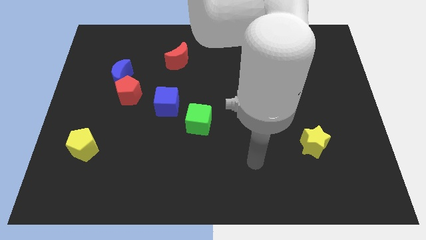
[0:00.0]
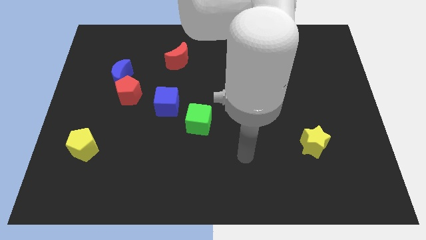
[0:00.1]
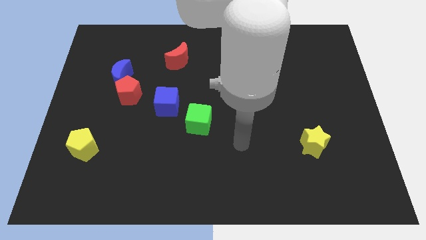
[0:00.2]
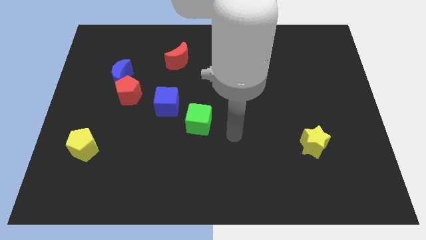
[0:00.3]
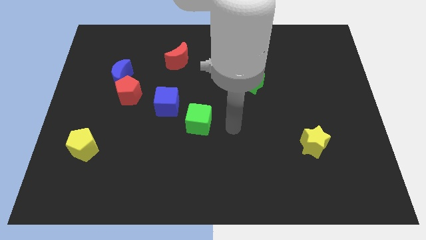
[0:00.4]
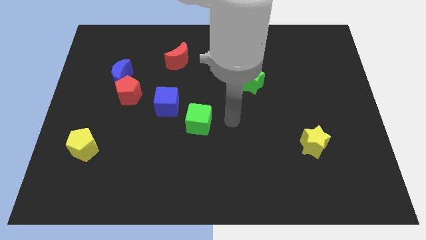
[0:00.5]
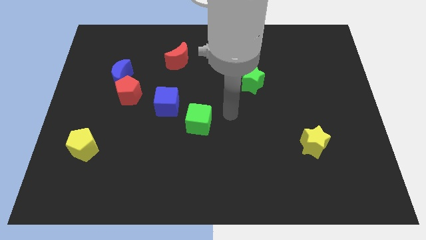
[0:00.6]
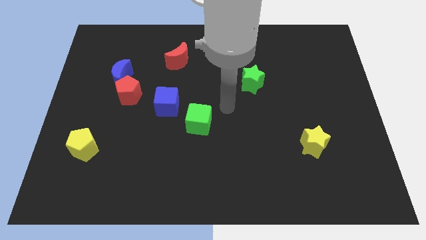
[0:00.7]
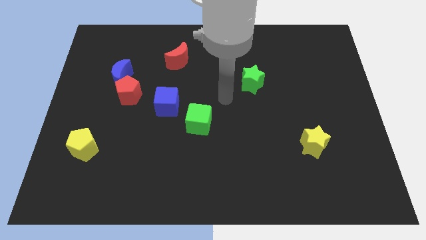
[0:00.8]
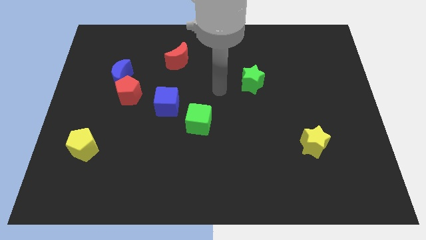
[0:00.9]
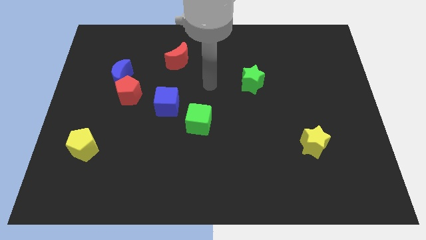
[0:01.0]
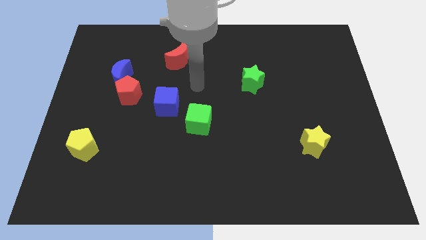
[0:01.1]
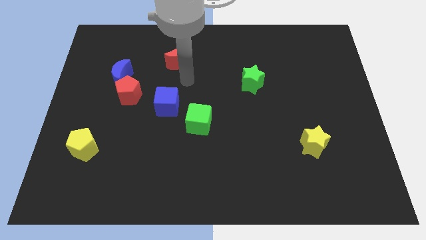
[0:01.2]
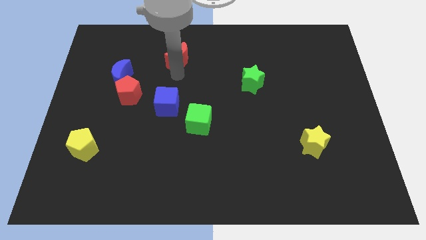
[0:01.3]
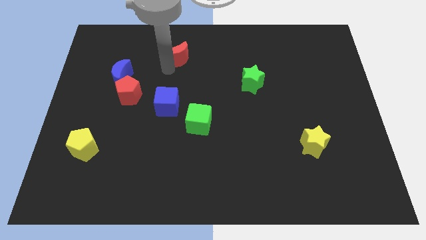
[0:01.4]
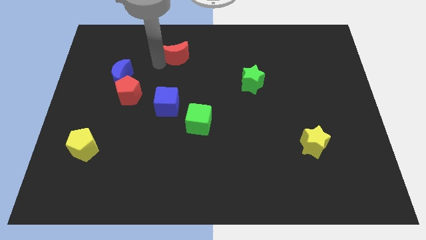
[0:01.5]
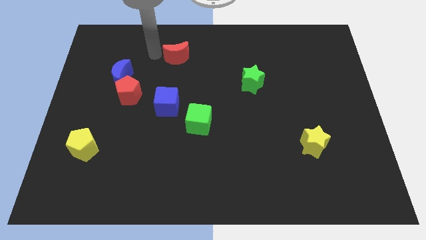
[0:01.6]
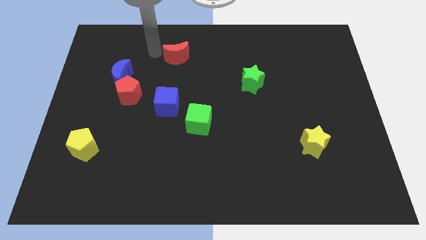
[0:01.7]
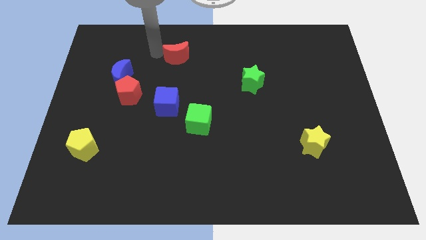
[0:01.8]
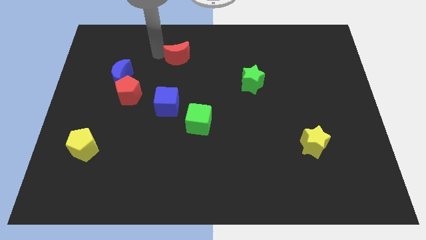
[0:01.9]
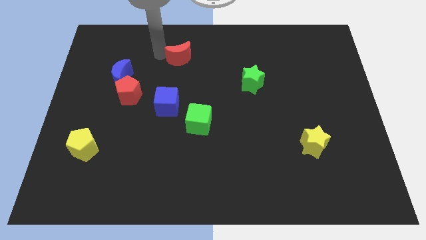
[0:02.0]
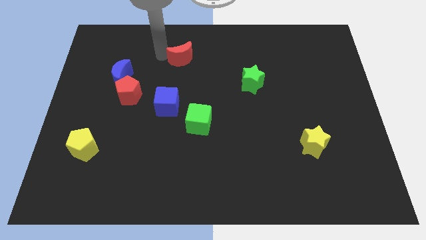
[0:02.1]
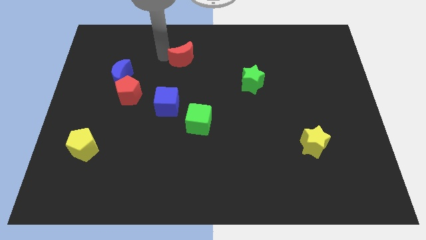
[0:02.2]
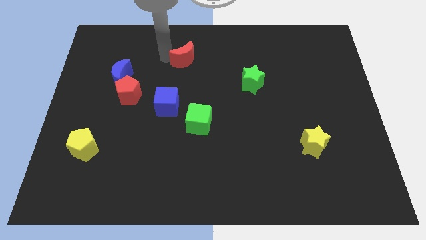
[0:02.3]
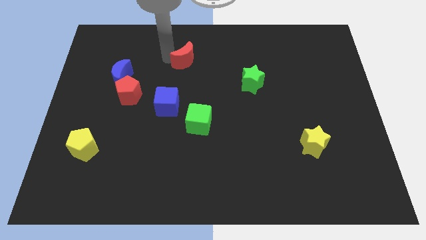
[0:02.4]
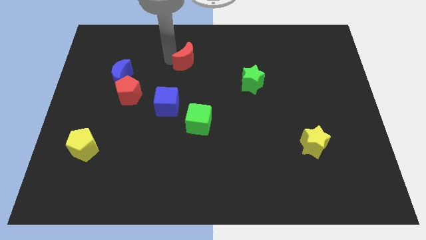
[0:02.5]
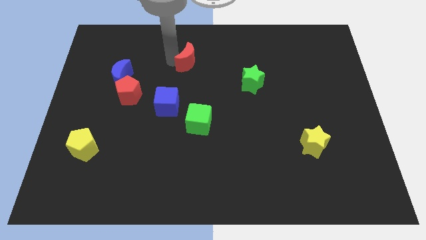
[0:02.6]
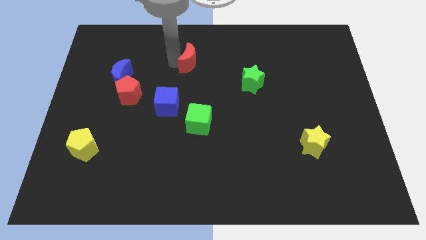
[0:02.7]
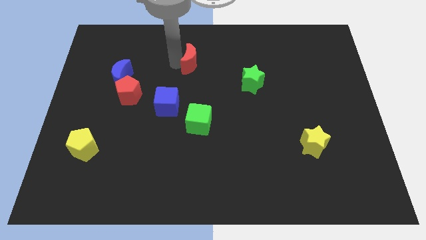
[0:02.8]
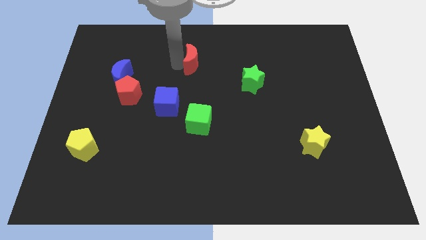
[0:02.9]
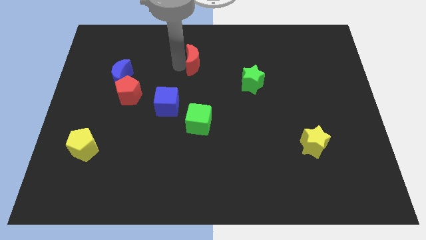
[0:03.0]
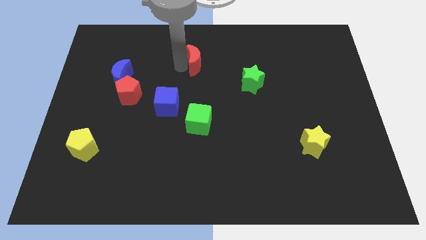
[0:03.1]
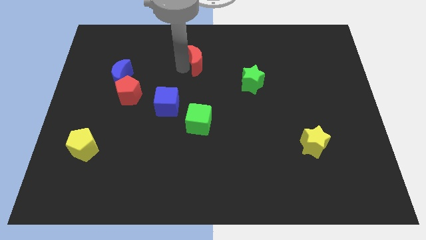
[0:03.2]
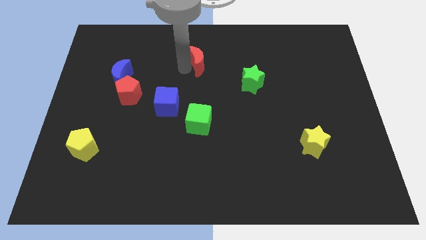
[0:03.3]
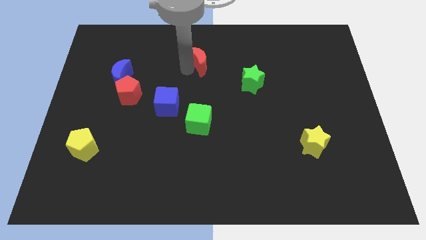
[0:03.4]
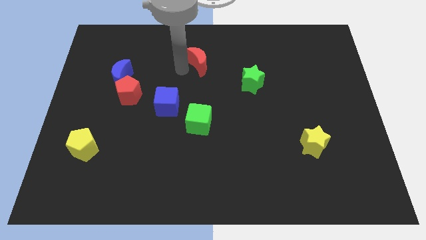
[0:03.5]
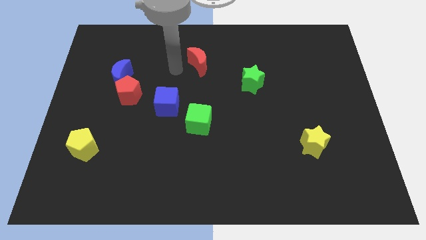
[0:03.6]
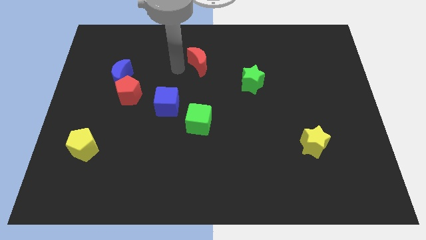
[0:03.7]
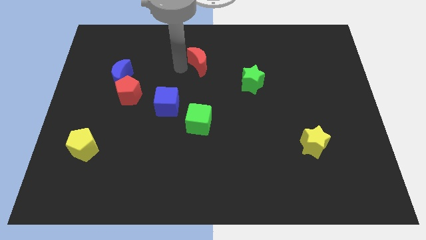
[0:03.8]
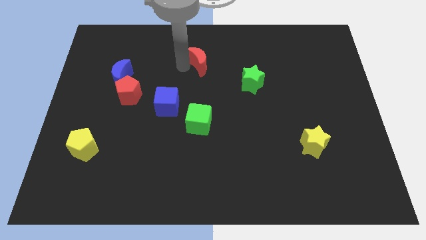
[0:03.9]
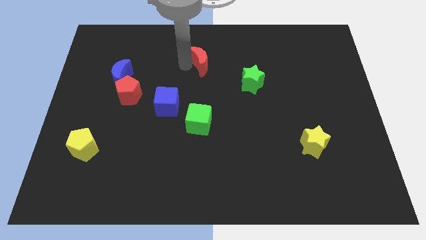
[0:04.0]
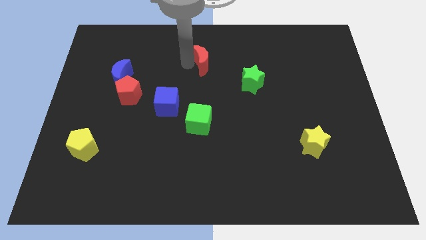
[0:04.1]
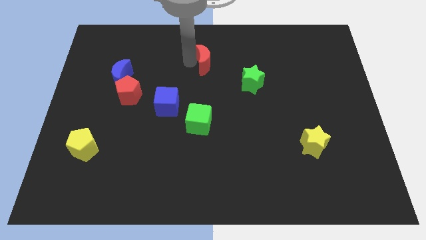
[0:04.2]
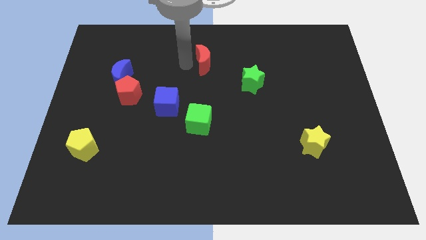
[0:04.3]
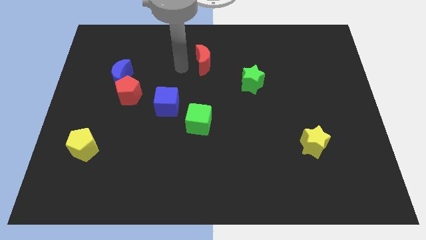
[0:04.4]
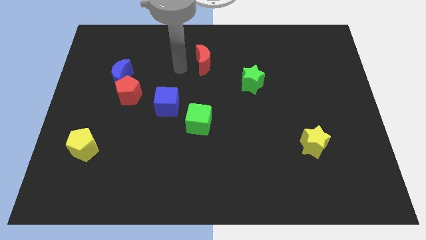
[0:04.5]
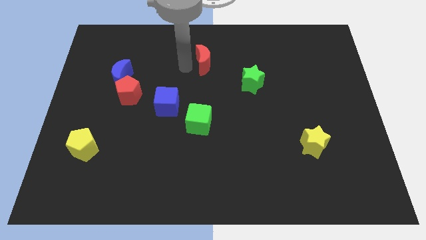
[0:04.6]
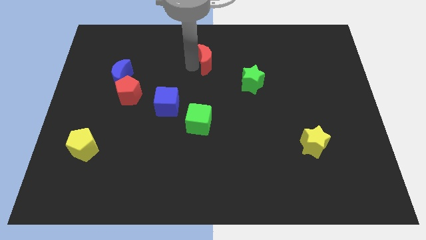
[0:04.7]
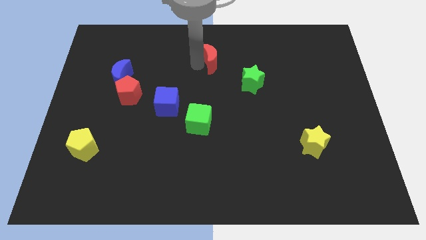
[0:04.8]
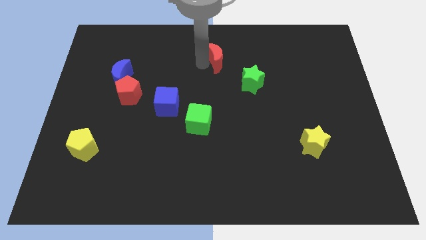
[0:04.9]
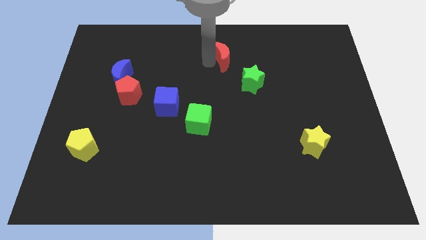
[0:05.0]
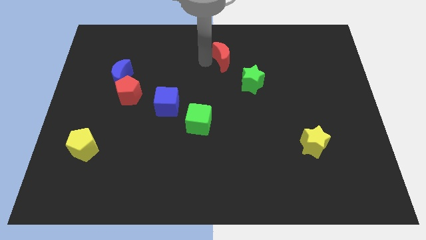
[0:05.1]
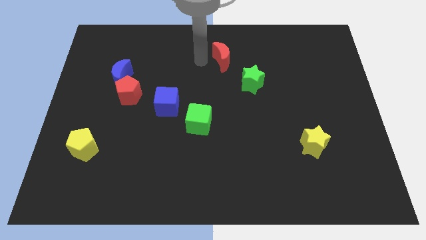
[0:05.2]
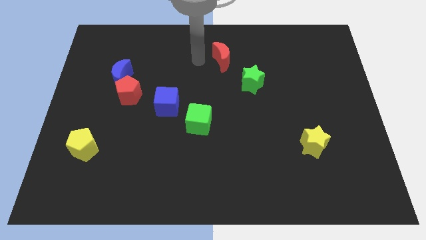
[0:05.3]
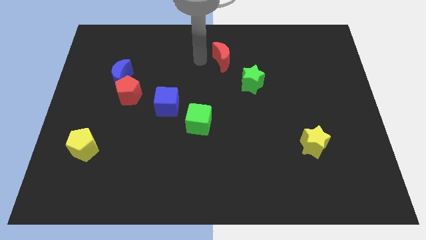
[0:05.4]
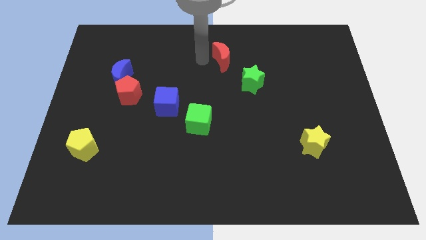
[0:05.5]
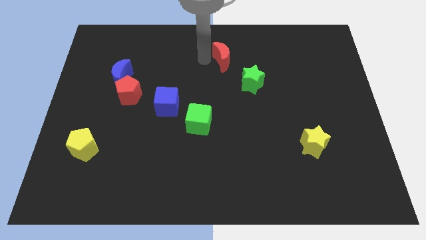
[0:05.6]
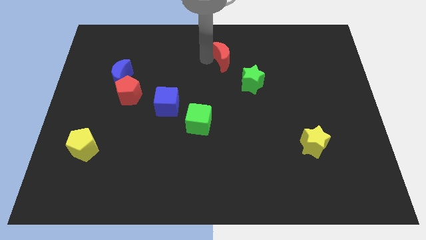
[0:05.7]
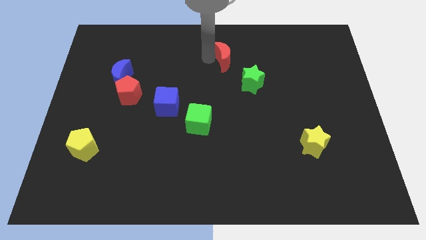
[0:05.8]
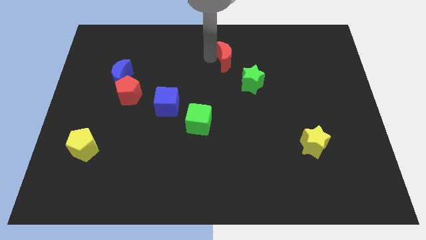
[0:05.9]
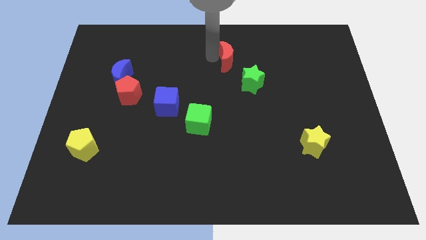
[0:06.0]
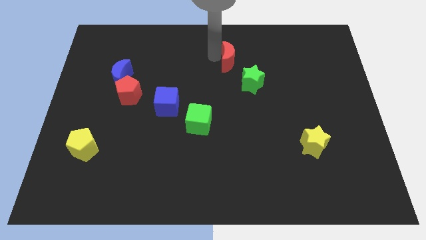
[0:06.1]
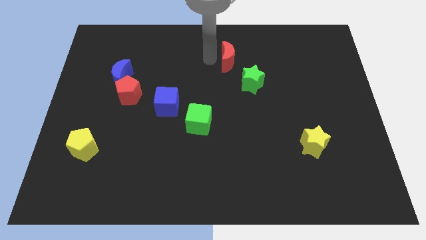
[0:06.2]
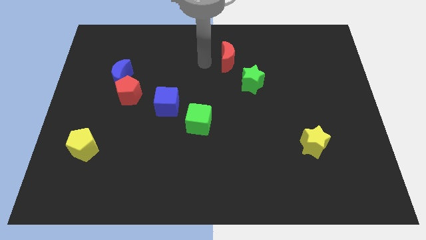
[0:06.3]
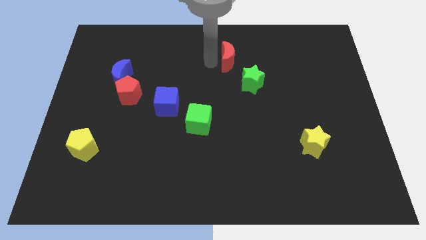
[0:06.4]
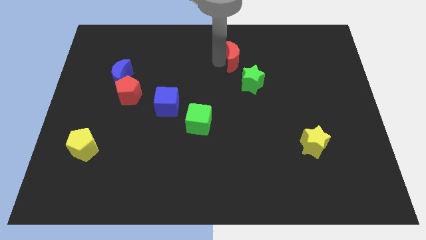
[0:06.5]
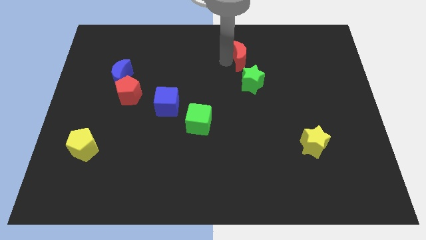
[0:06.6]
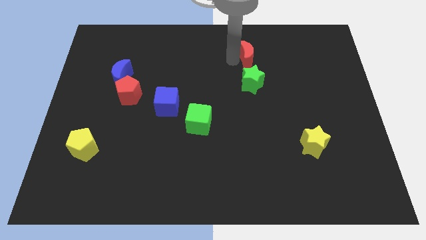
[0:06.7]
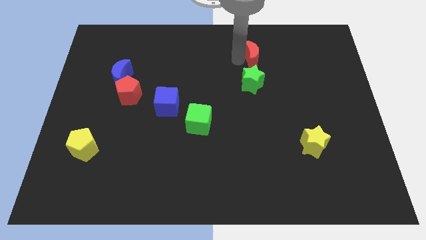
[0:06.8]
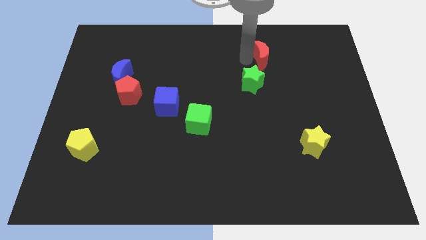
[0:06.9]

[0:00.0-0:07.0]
push the red moon to the right

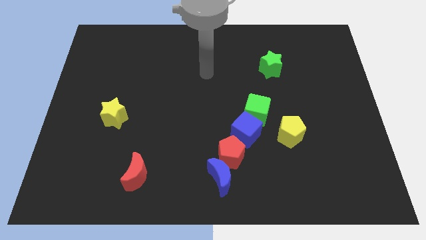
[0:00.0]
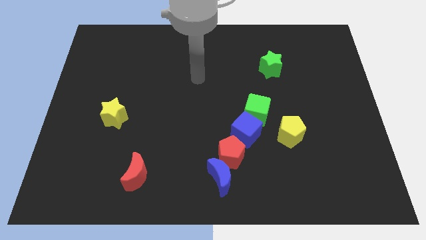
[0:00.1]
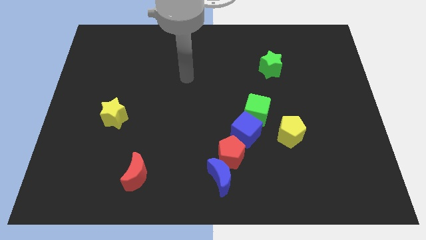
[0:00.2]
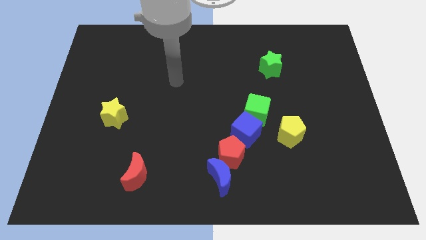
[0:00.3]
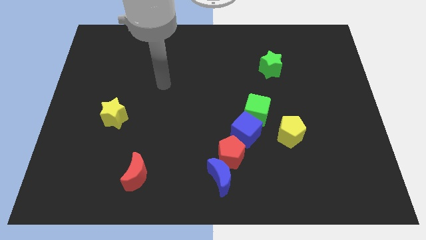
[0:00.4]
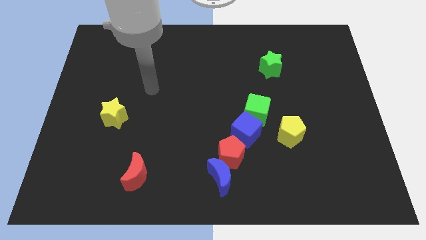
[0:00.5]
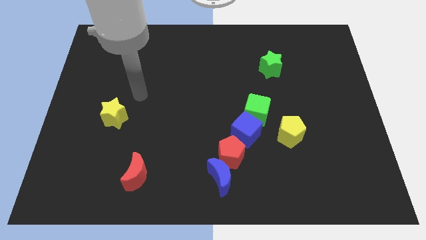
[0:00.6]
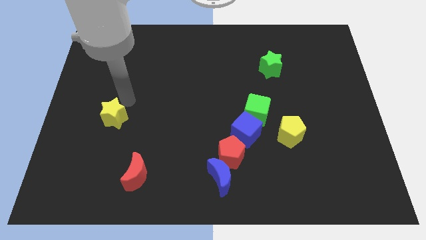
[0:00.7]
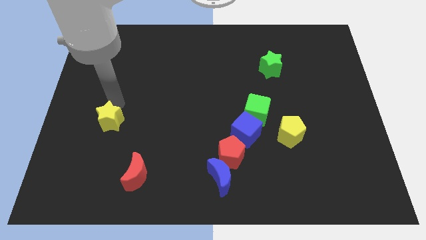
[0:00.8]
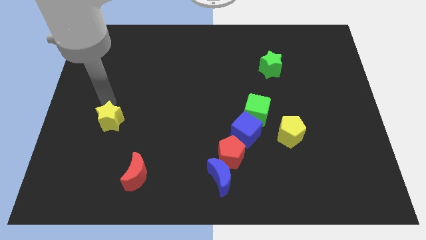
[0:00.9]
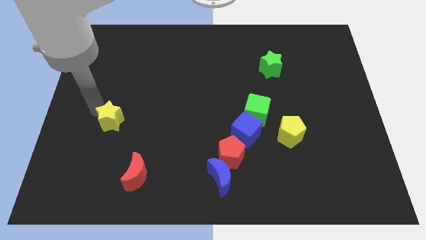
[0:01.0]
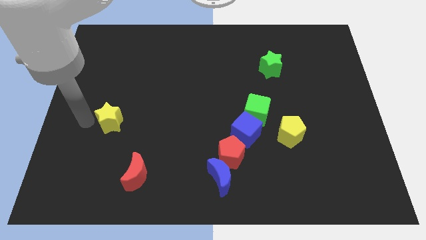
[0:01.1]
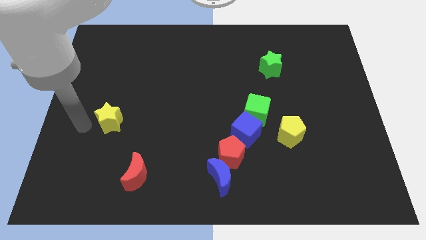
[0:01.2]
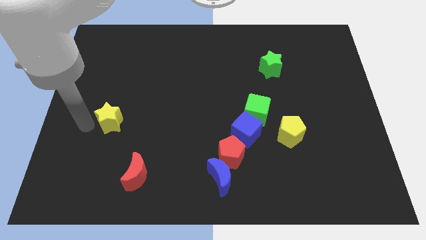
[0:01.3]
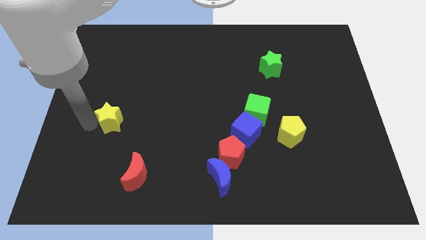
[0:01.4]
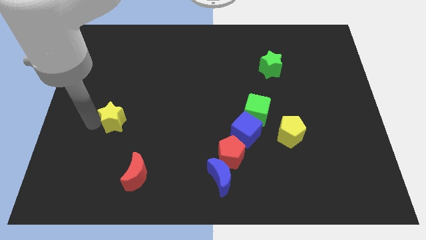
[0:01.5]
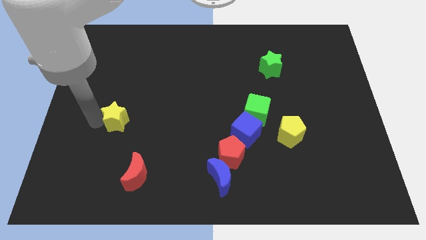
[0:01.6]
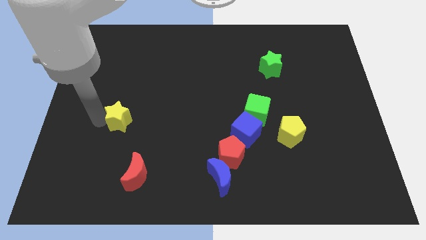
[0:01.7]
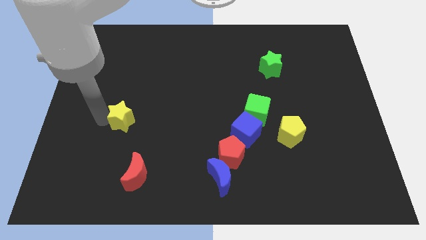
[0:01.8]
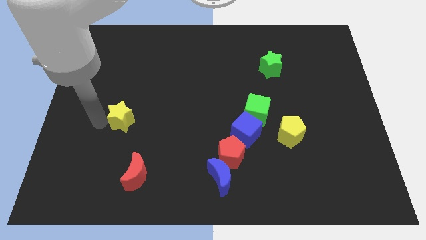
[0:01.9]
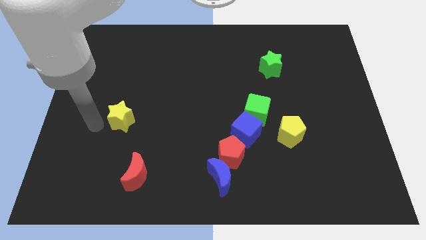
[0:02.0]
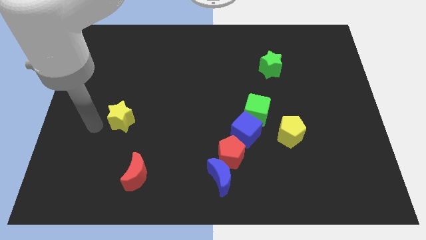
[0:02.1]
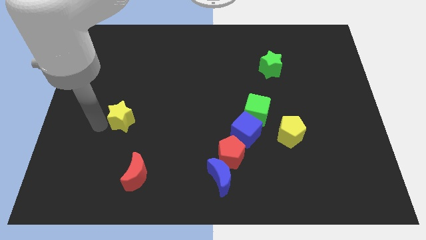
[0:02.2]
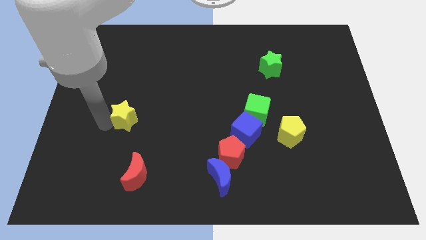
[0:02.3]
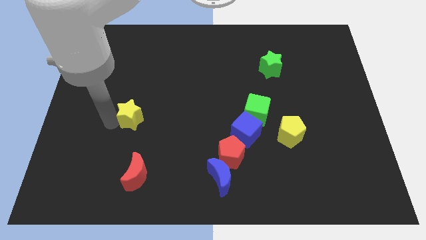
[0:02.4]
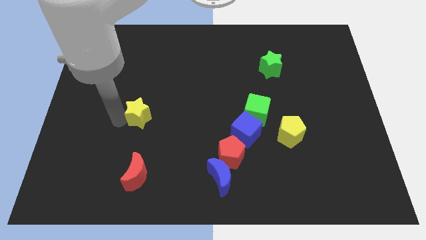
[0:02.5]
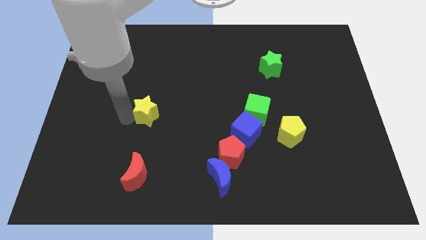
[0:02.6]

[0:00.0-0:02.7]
slightly slide the yellow star to the right
